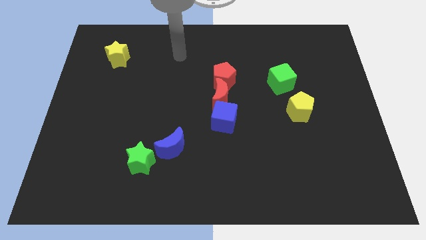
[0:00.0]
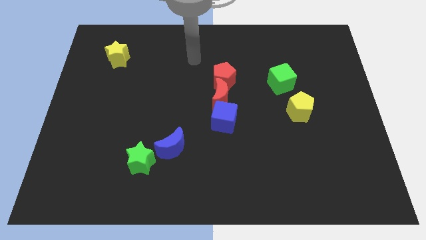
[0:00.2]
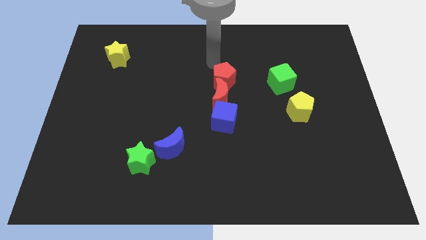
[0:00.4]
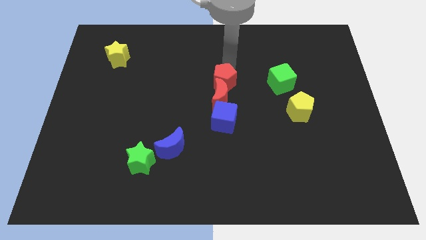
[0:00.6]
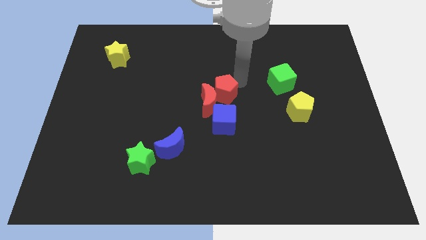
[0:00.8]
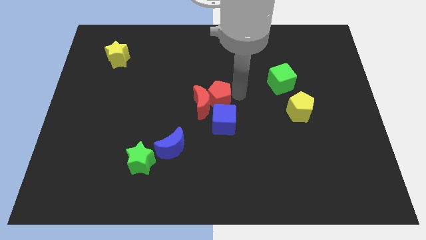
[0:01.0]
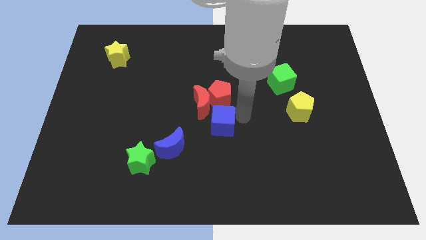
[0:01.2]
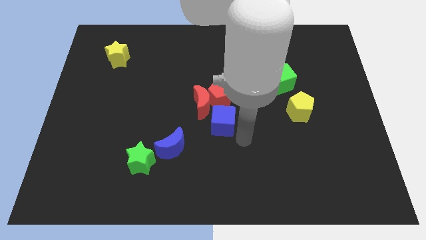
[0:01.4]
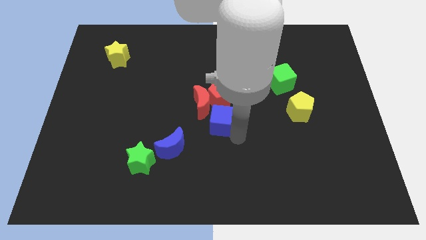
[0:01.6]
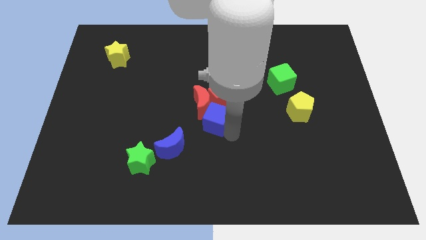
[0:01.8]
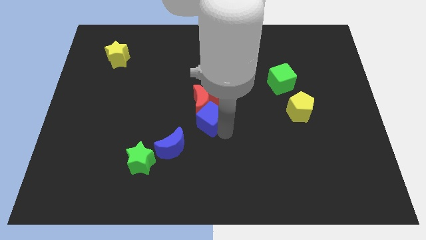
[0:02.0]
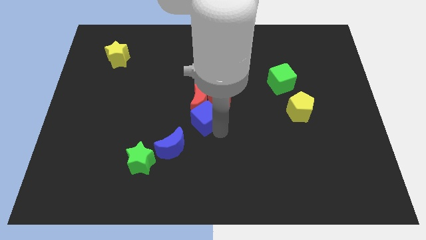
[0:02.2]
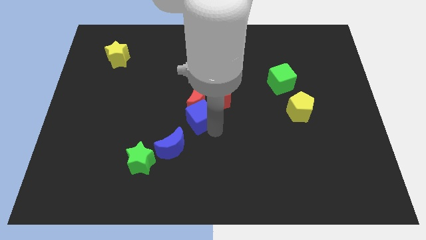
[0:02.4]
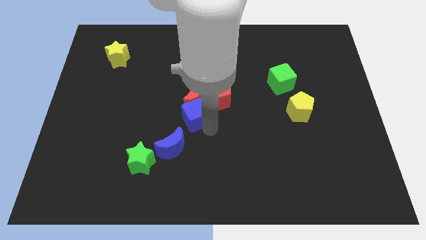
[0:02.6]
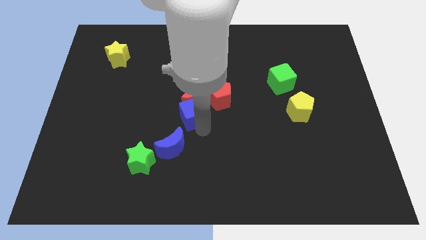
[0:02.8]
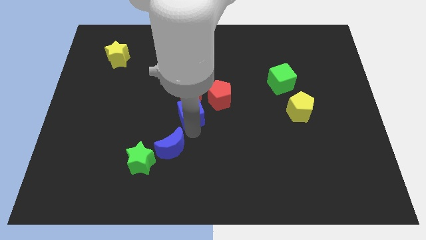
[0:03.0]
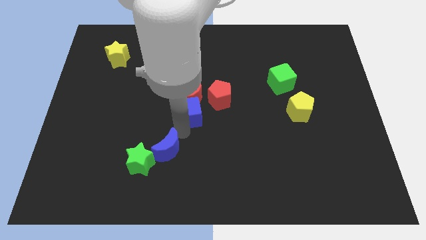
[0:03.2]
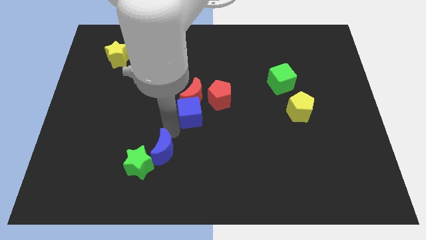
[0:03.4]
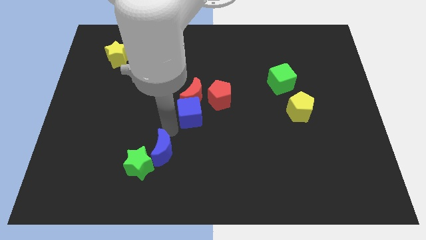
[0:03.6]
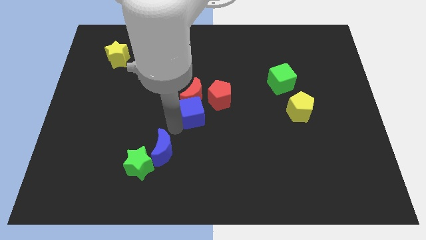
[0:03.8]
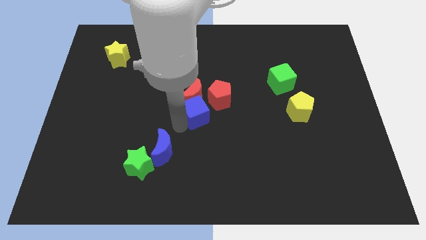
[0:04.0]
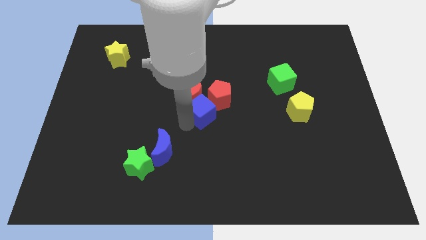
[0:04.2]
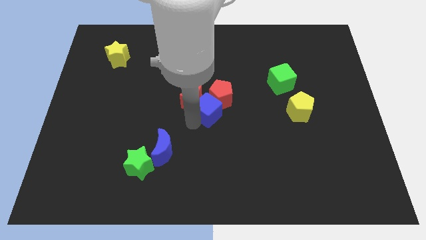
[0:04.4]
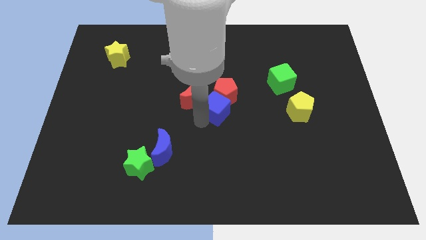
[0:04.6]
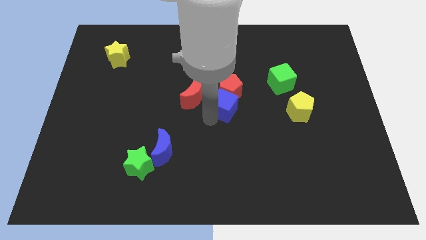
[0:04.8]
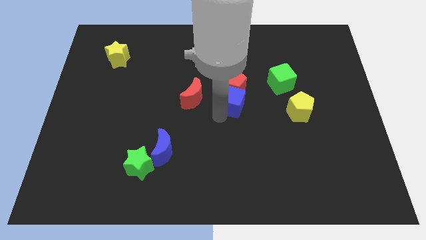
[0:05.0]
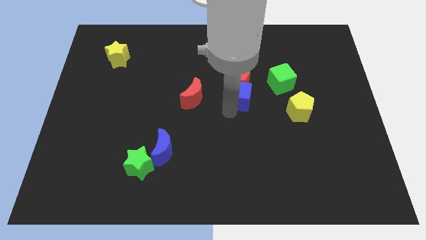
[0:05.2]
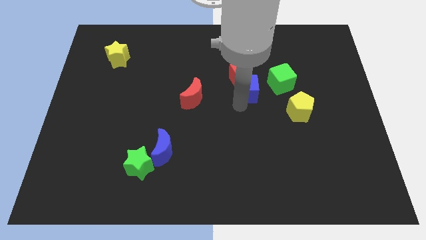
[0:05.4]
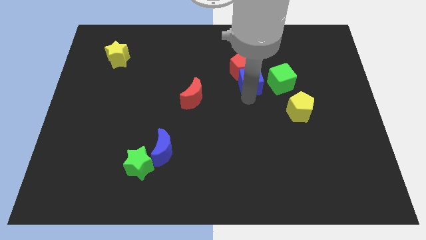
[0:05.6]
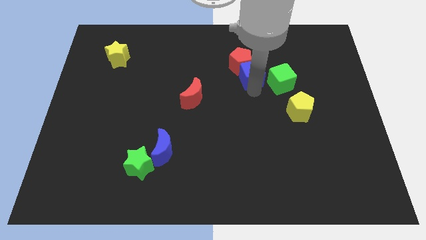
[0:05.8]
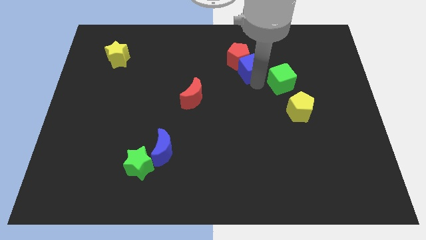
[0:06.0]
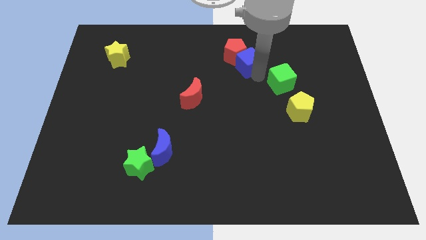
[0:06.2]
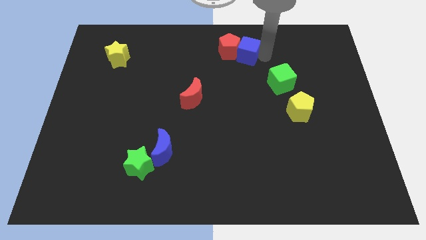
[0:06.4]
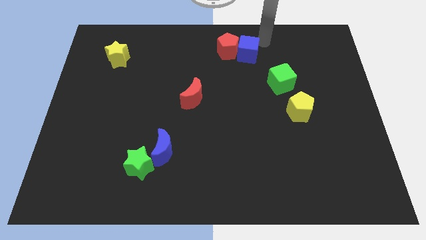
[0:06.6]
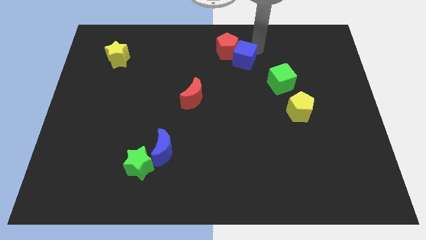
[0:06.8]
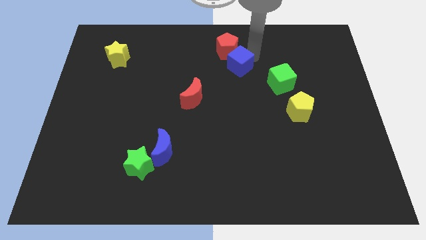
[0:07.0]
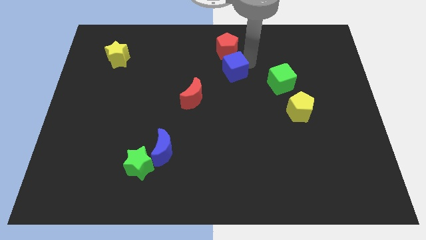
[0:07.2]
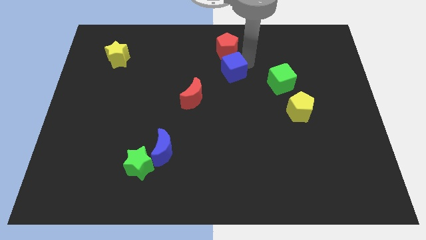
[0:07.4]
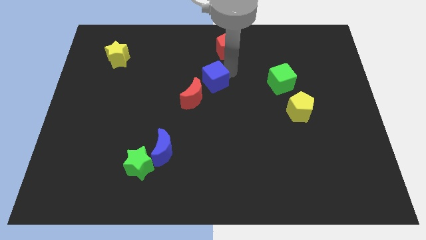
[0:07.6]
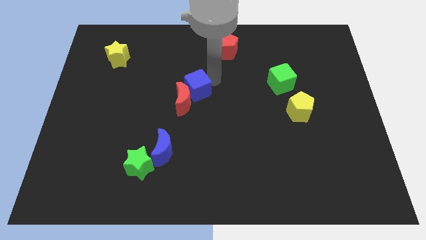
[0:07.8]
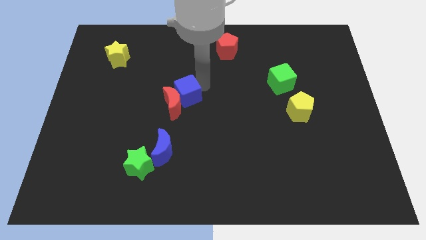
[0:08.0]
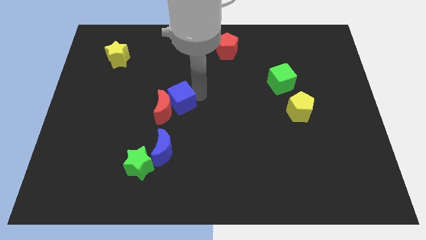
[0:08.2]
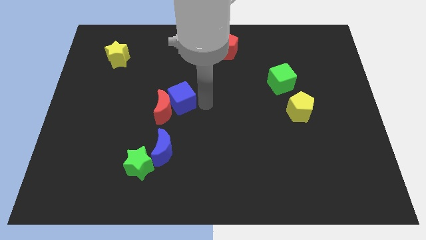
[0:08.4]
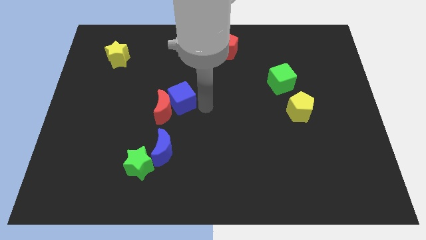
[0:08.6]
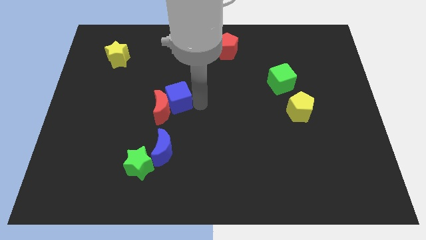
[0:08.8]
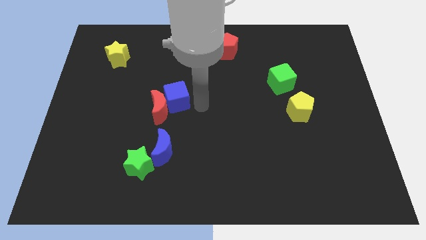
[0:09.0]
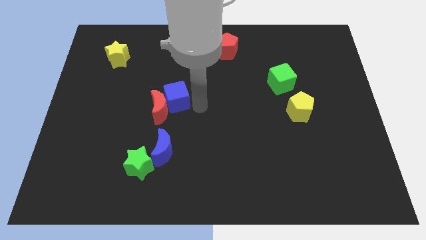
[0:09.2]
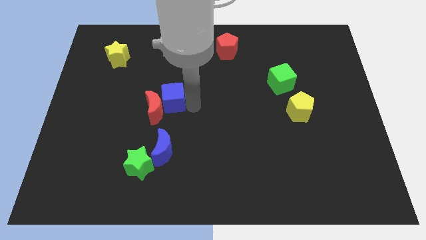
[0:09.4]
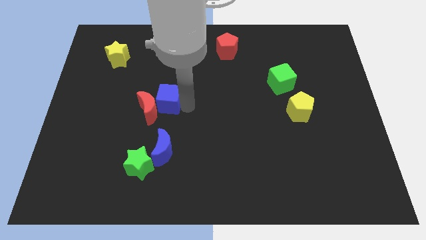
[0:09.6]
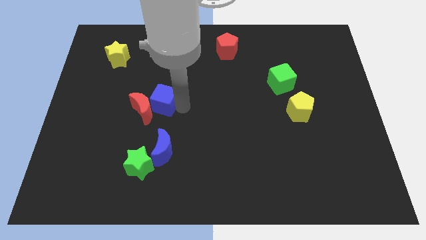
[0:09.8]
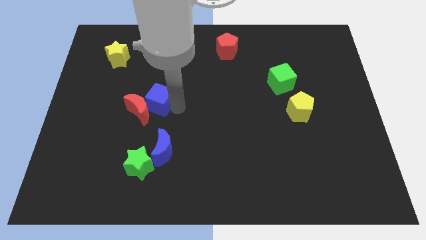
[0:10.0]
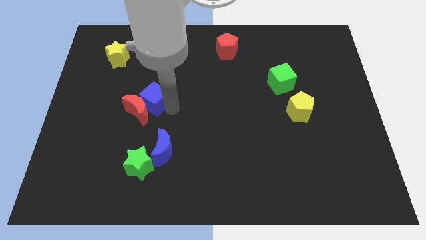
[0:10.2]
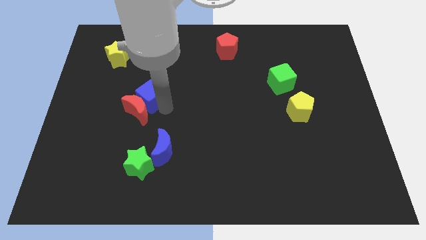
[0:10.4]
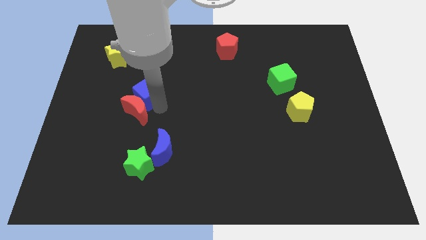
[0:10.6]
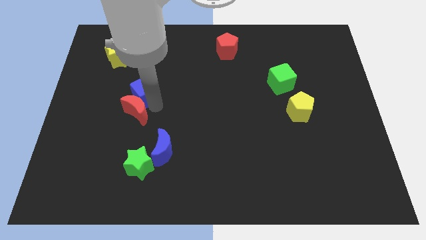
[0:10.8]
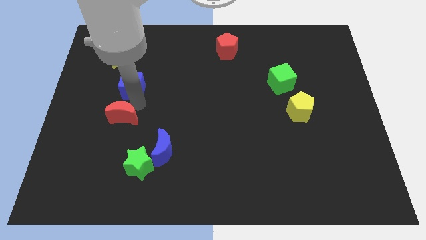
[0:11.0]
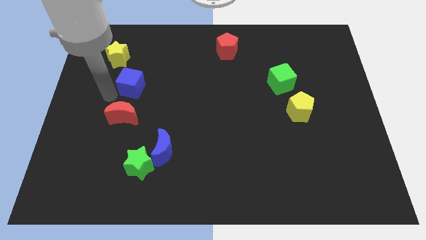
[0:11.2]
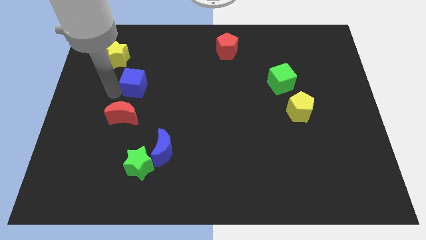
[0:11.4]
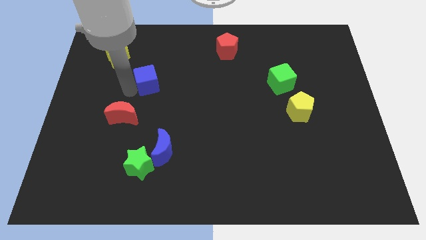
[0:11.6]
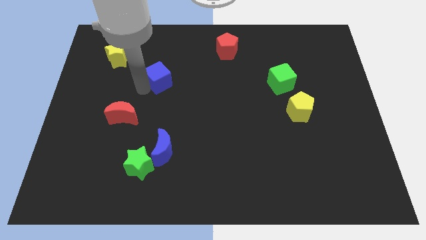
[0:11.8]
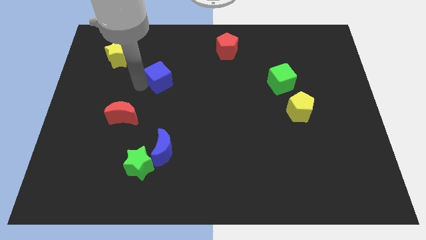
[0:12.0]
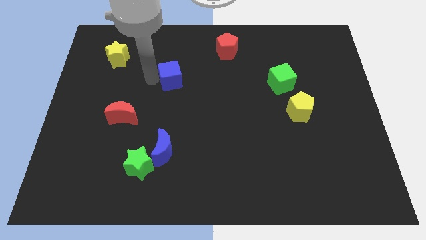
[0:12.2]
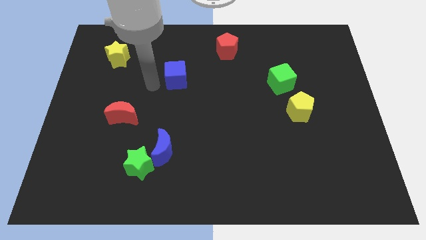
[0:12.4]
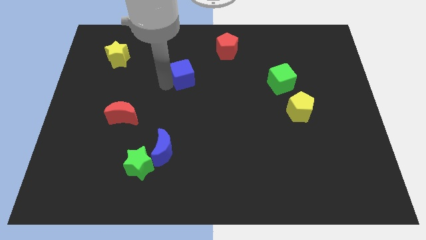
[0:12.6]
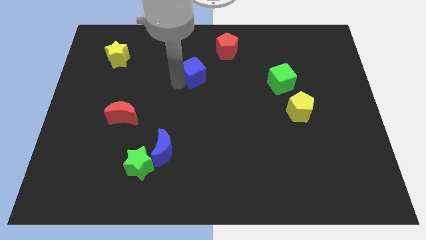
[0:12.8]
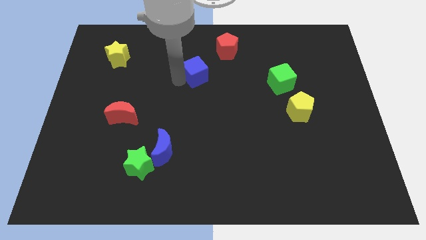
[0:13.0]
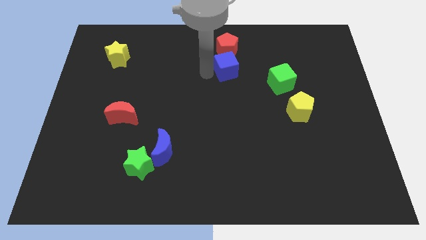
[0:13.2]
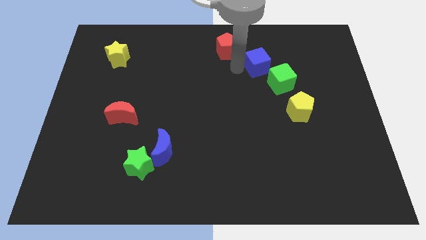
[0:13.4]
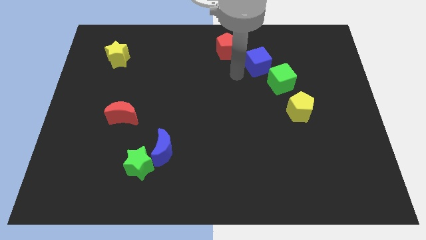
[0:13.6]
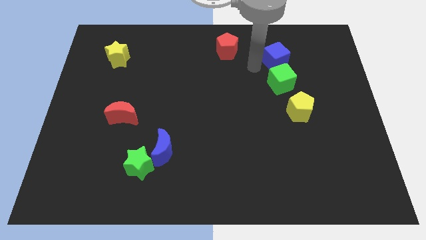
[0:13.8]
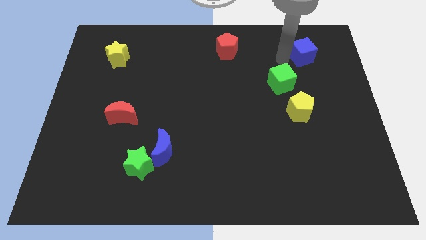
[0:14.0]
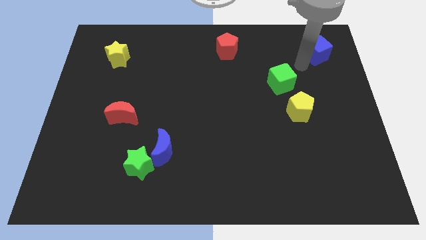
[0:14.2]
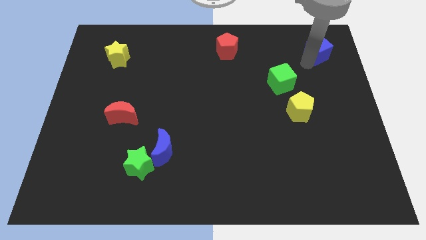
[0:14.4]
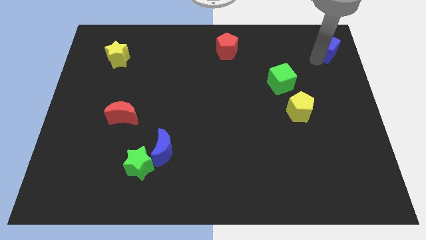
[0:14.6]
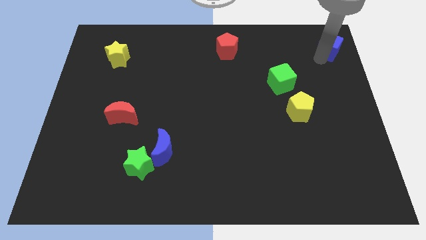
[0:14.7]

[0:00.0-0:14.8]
push the blue cube to the top right of the board
